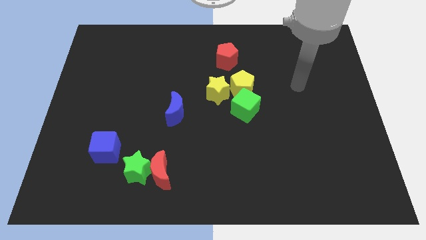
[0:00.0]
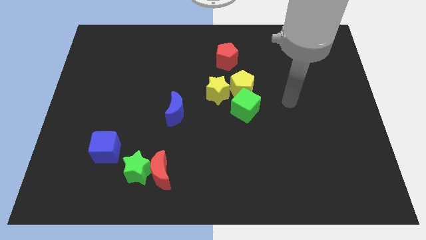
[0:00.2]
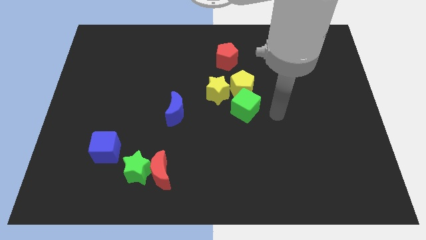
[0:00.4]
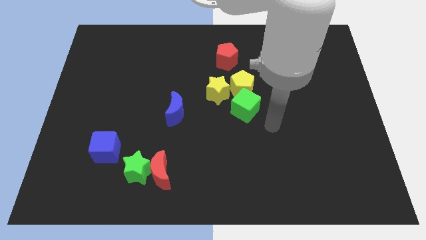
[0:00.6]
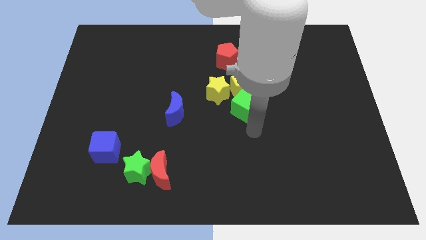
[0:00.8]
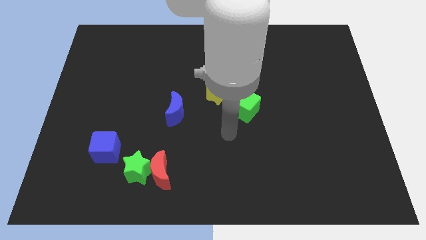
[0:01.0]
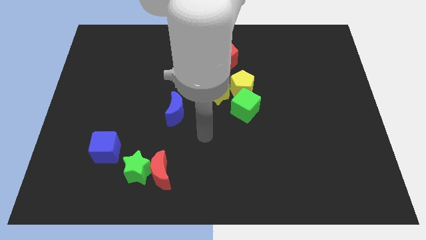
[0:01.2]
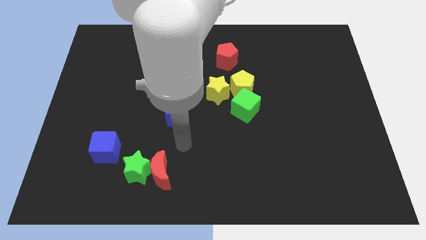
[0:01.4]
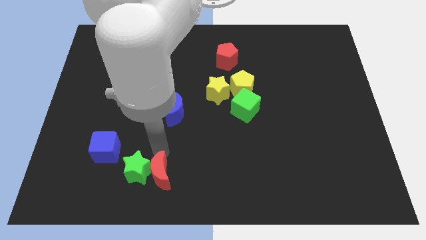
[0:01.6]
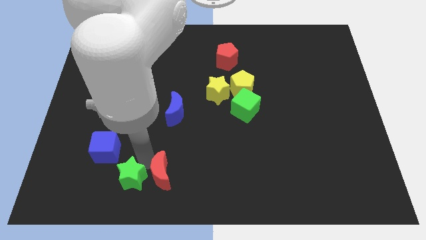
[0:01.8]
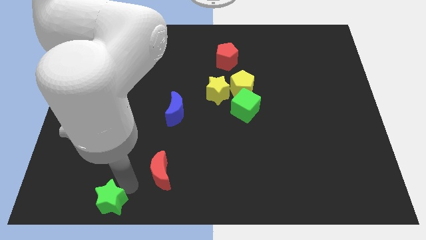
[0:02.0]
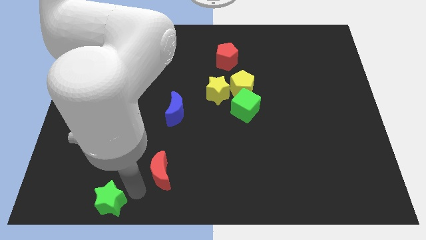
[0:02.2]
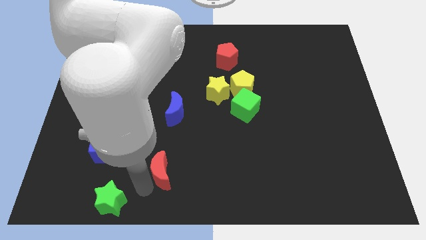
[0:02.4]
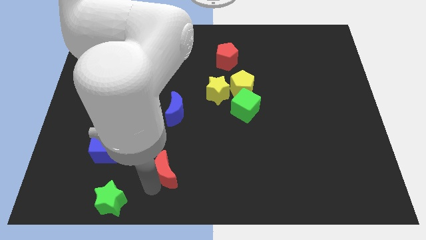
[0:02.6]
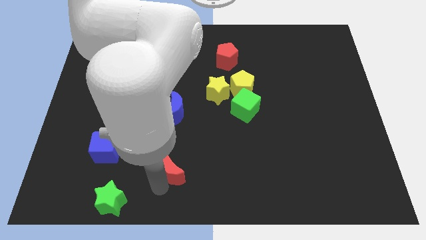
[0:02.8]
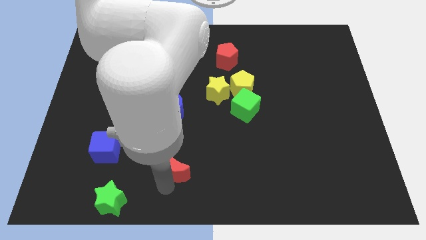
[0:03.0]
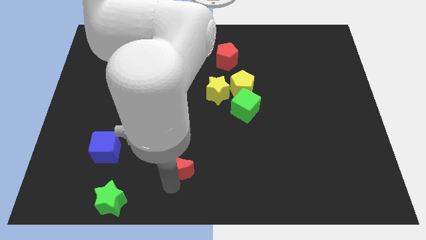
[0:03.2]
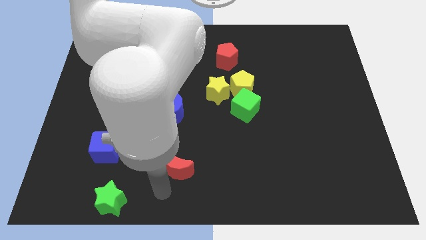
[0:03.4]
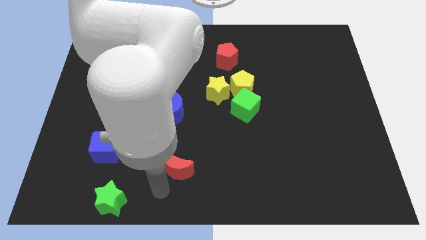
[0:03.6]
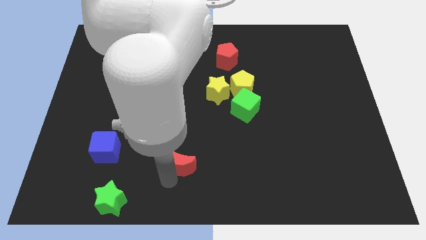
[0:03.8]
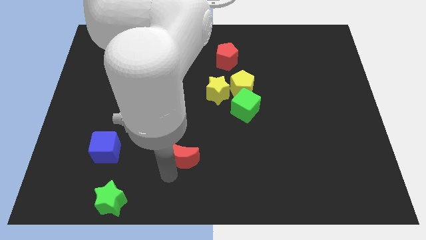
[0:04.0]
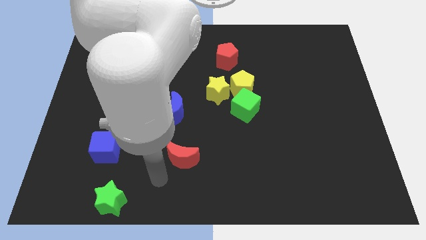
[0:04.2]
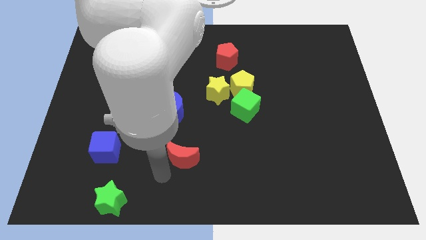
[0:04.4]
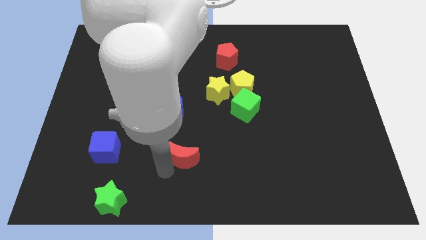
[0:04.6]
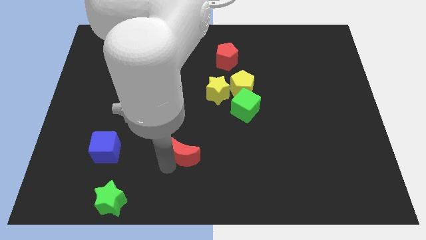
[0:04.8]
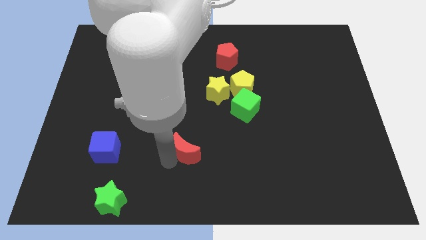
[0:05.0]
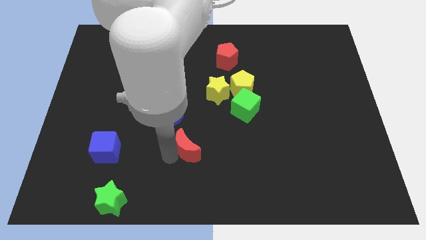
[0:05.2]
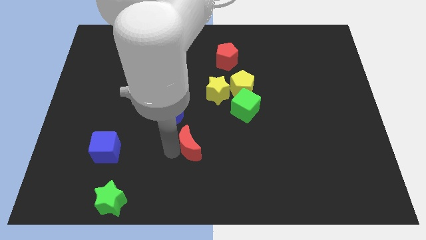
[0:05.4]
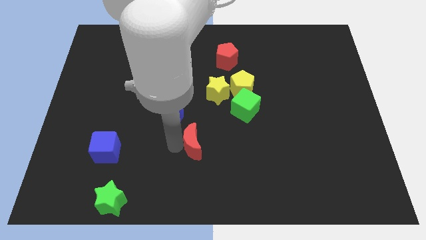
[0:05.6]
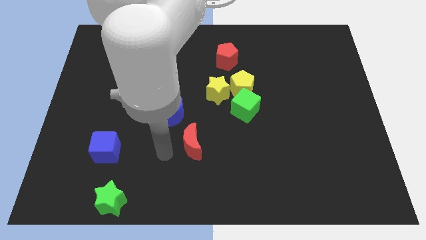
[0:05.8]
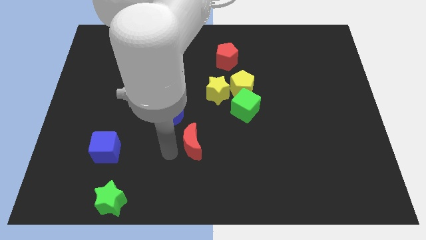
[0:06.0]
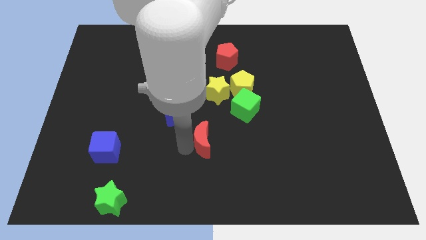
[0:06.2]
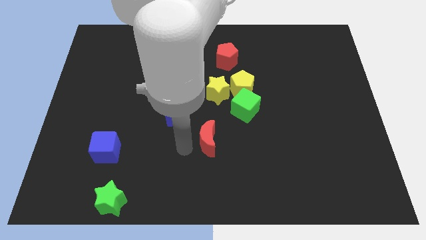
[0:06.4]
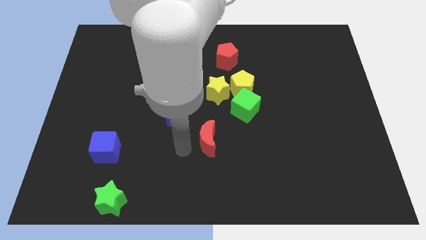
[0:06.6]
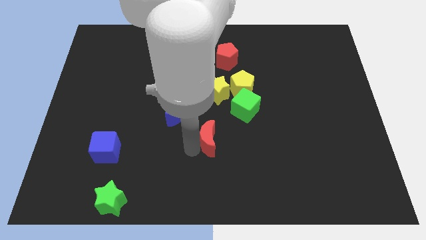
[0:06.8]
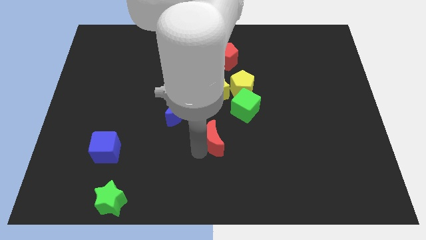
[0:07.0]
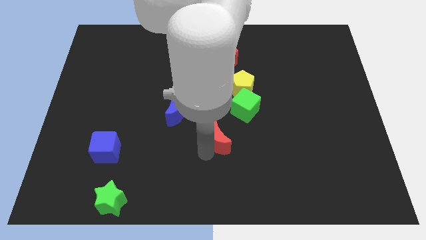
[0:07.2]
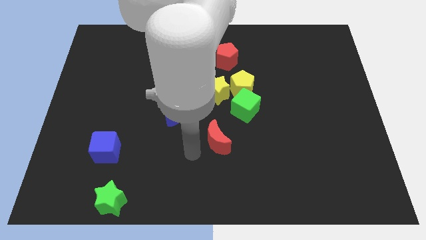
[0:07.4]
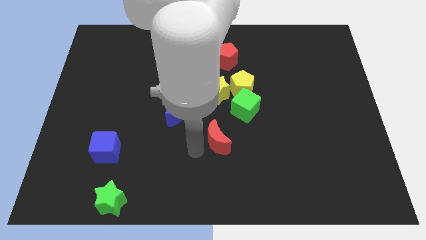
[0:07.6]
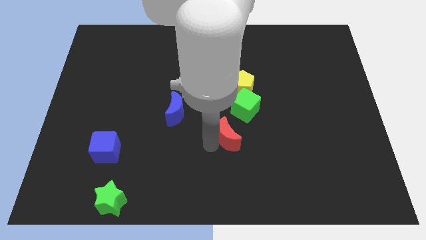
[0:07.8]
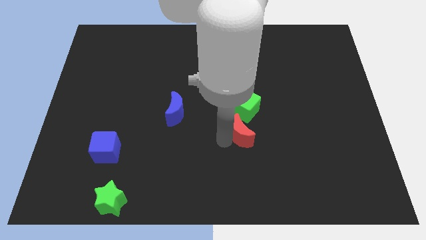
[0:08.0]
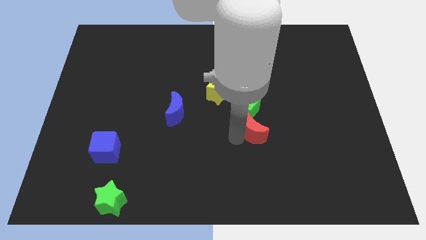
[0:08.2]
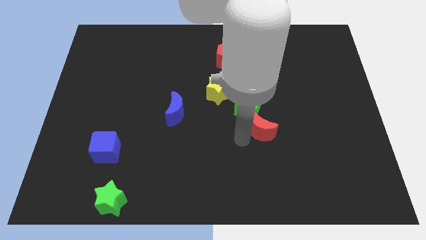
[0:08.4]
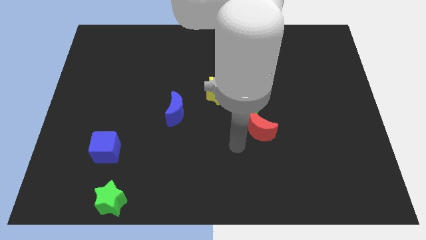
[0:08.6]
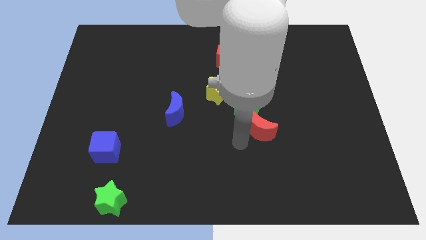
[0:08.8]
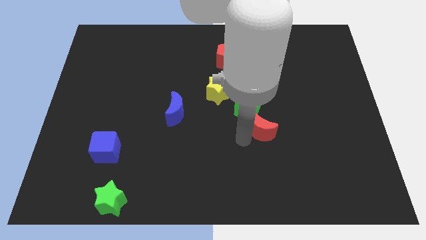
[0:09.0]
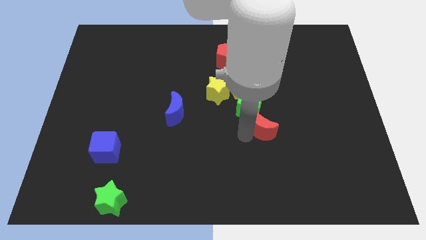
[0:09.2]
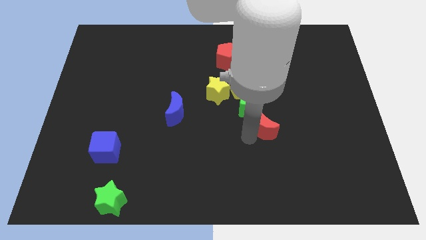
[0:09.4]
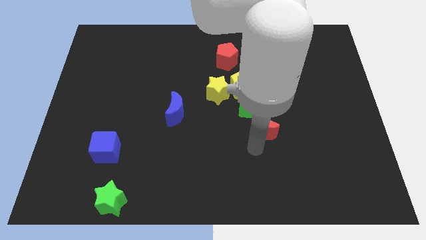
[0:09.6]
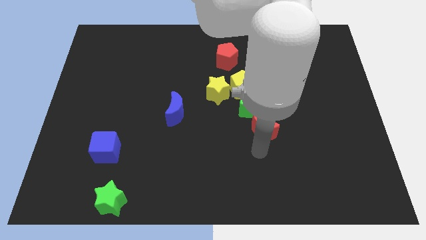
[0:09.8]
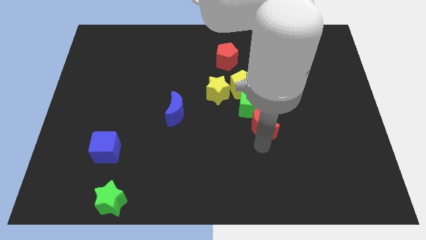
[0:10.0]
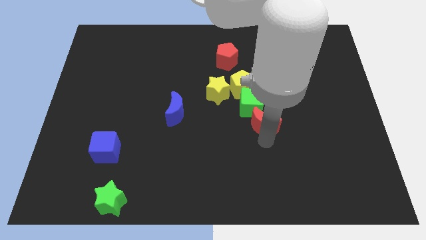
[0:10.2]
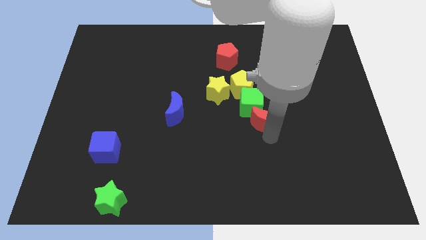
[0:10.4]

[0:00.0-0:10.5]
push the red moon to the bottom right side of the yellow pentagon

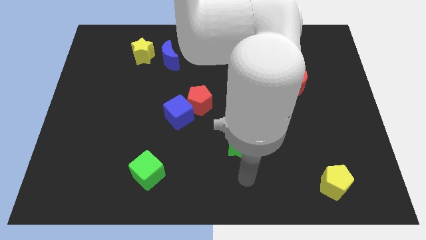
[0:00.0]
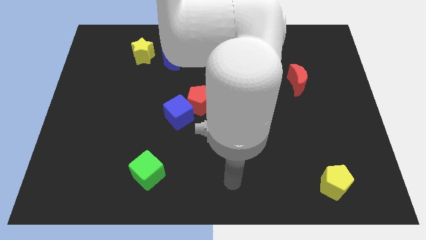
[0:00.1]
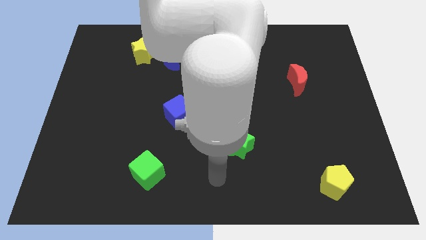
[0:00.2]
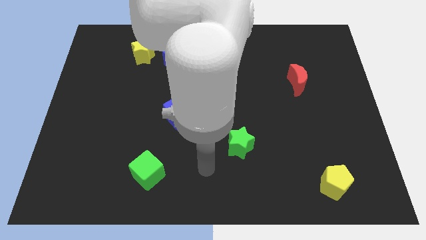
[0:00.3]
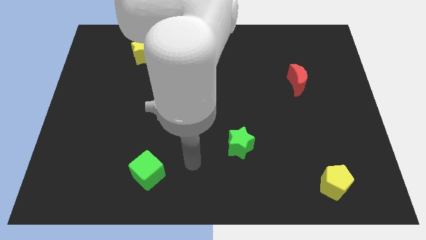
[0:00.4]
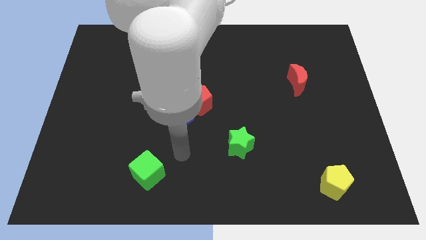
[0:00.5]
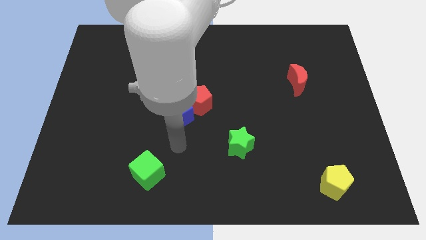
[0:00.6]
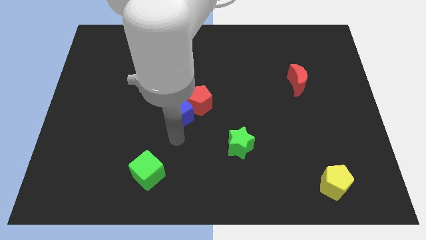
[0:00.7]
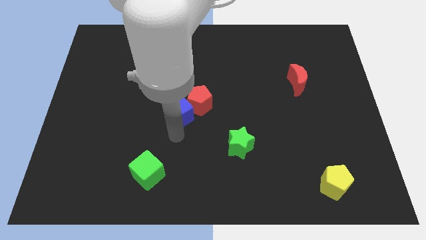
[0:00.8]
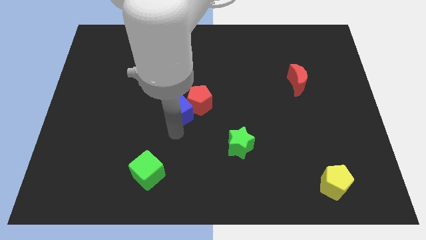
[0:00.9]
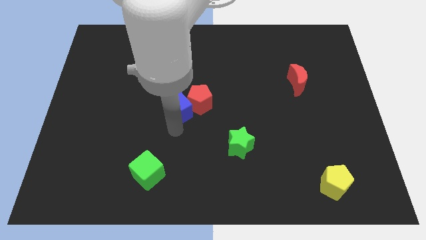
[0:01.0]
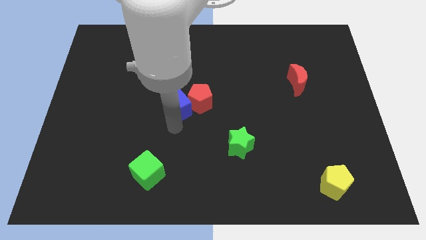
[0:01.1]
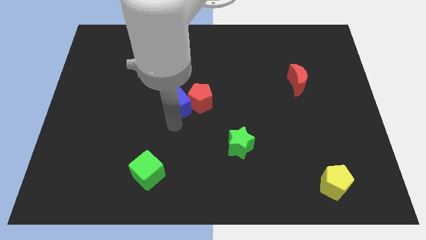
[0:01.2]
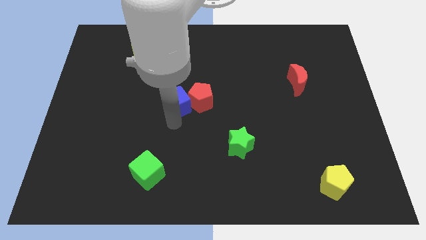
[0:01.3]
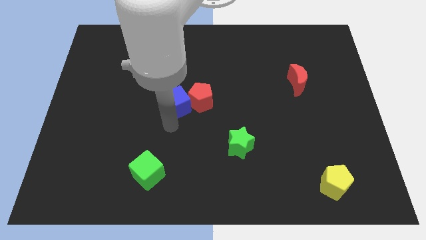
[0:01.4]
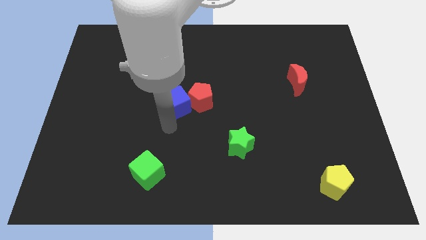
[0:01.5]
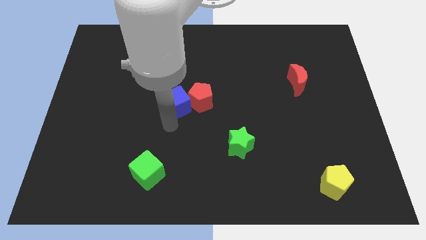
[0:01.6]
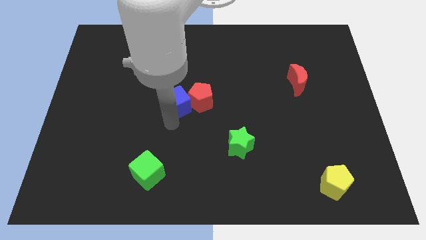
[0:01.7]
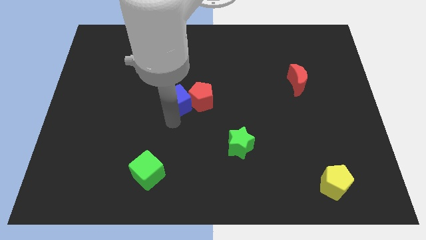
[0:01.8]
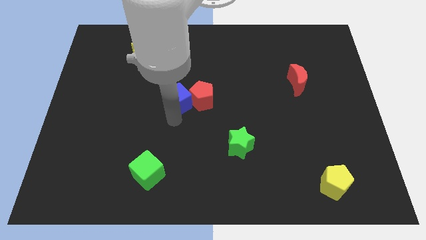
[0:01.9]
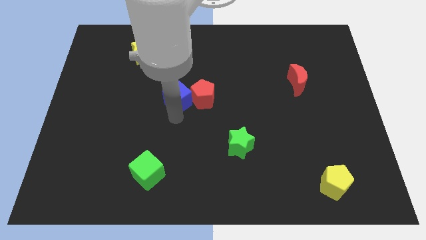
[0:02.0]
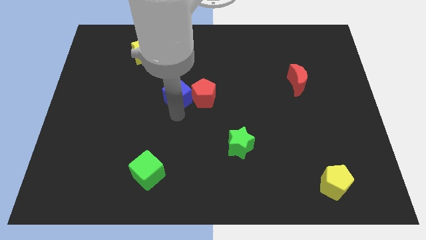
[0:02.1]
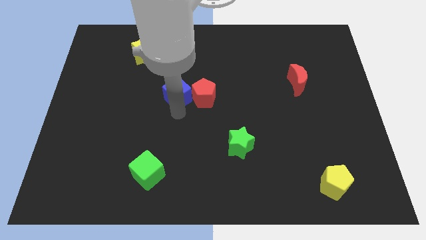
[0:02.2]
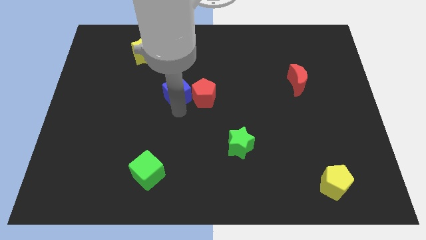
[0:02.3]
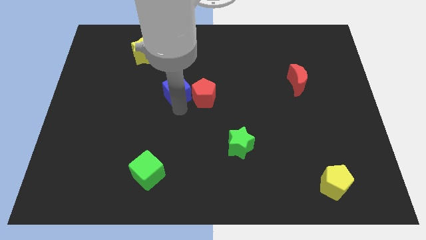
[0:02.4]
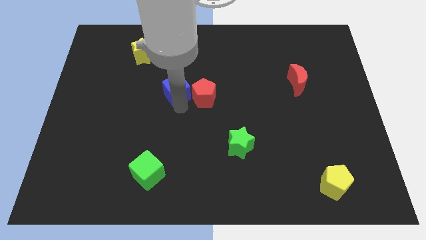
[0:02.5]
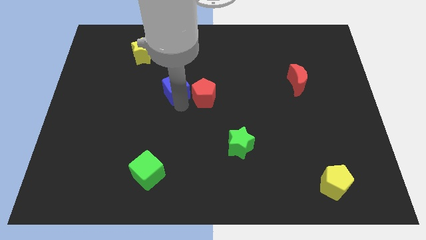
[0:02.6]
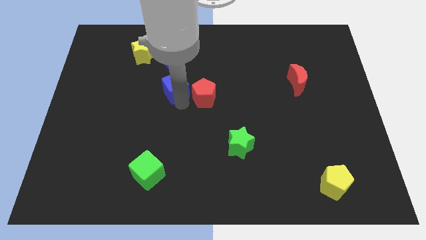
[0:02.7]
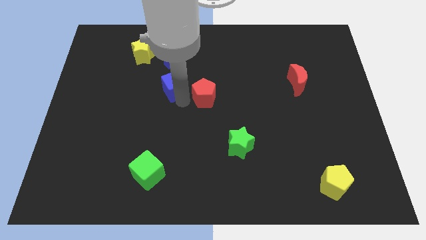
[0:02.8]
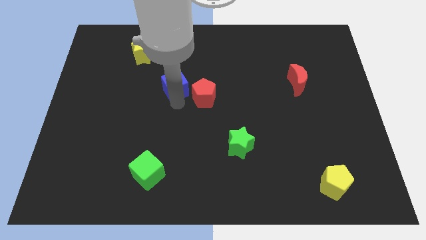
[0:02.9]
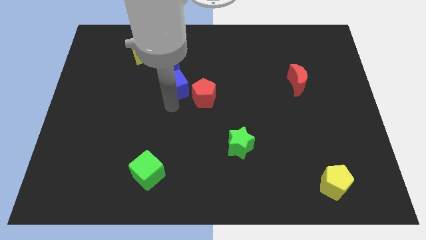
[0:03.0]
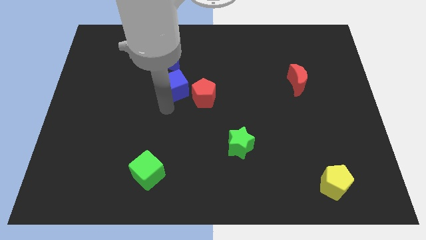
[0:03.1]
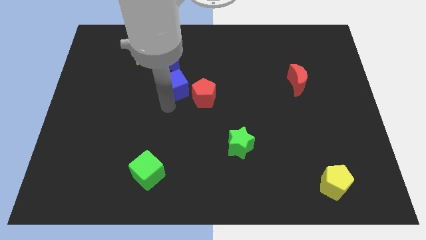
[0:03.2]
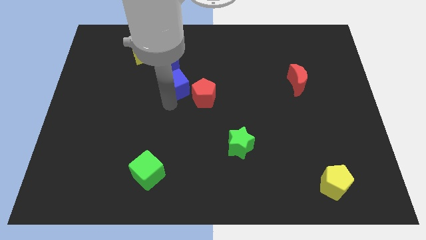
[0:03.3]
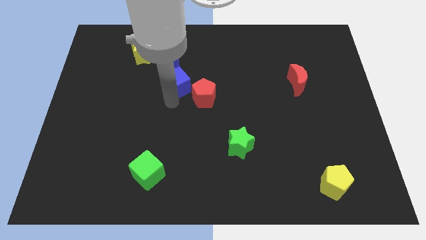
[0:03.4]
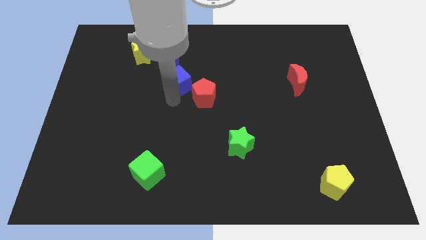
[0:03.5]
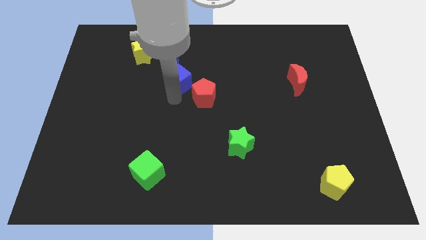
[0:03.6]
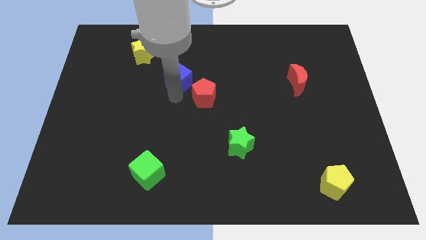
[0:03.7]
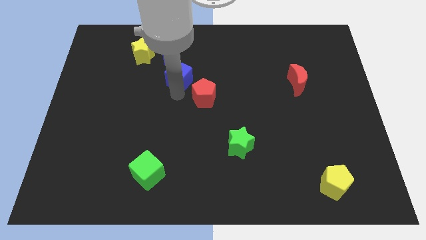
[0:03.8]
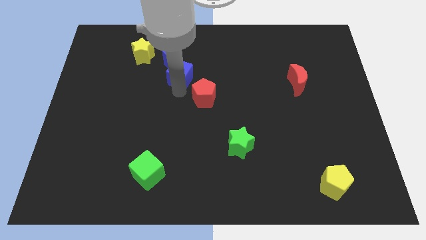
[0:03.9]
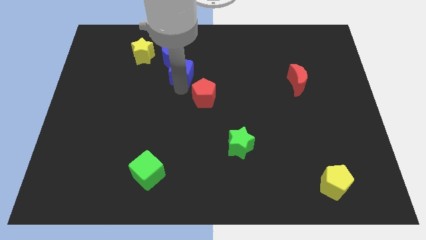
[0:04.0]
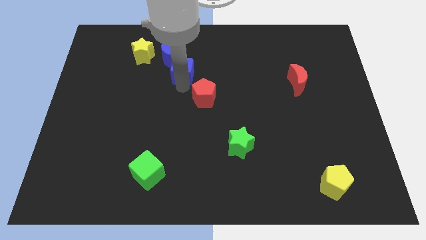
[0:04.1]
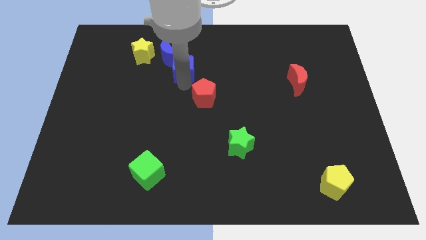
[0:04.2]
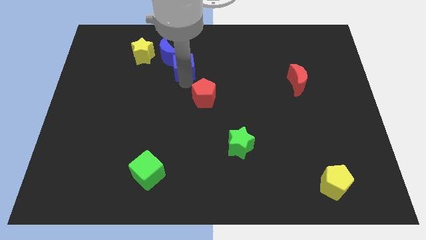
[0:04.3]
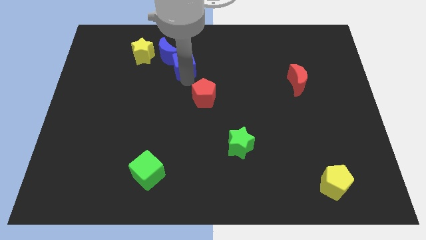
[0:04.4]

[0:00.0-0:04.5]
push the blue cube just right of the yellow star
